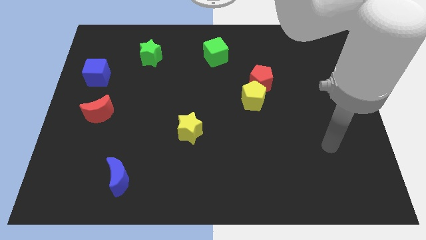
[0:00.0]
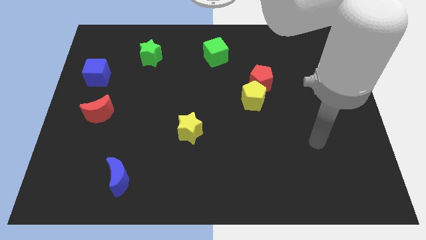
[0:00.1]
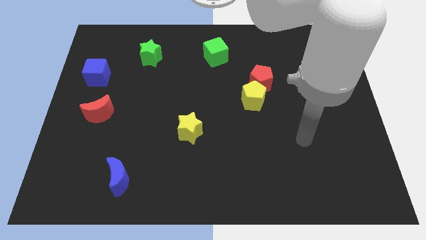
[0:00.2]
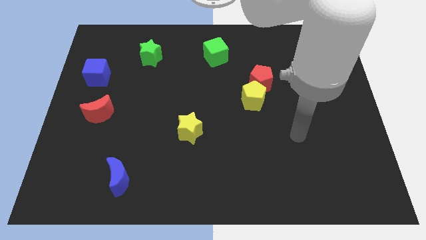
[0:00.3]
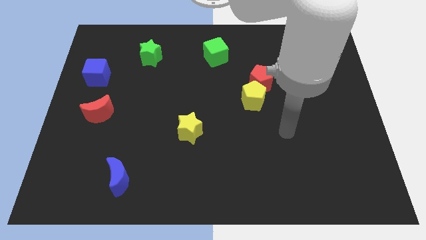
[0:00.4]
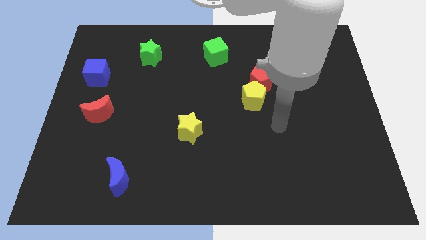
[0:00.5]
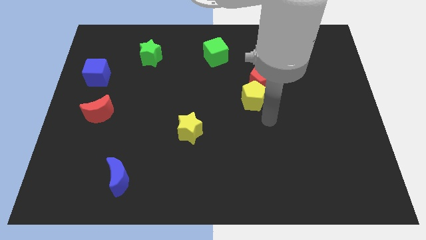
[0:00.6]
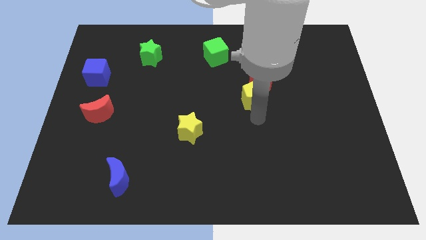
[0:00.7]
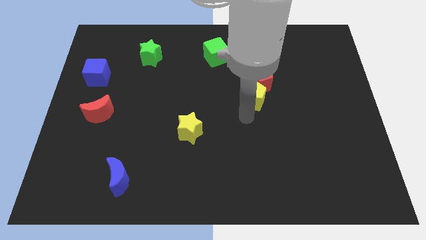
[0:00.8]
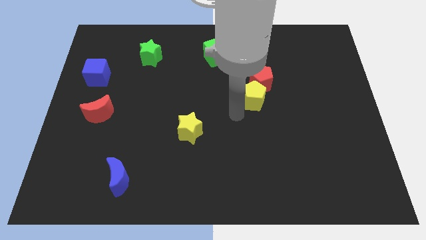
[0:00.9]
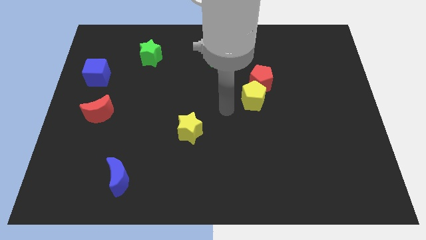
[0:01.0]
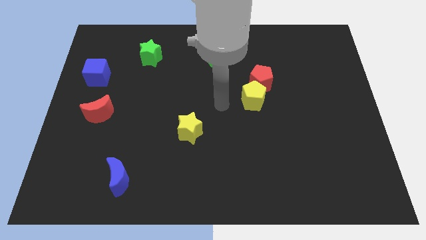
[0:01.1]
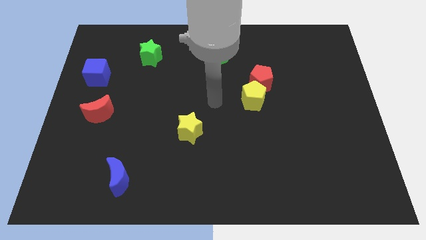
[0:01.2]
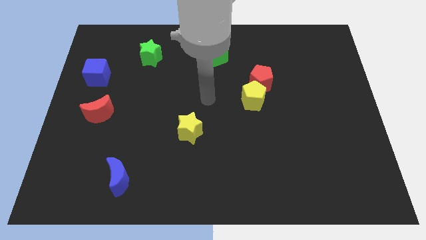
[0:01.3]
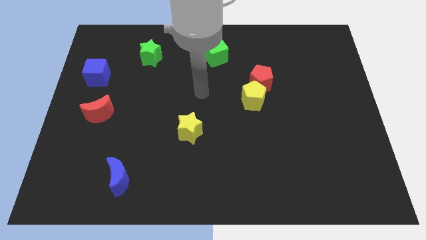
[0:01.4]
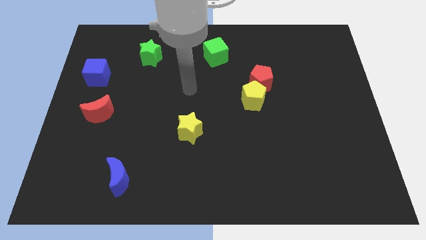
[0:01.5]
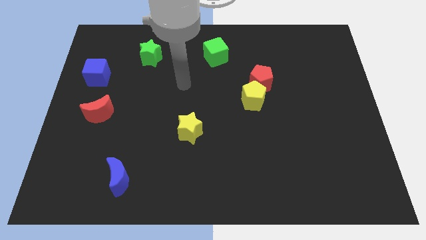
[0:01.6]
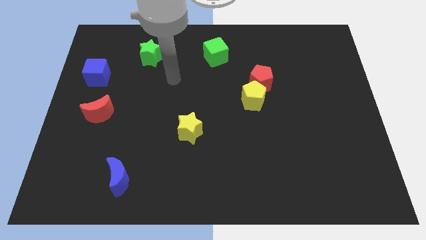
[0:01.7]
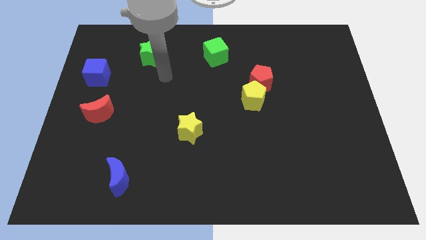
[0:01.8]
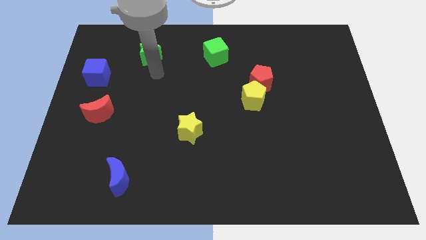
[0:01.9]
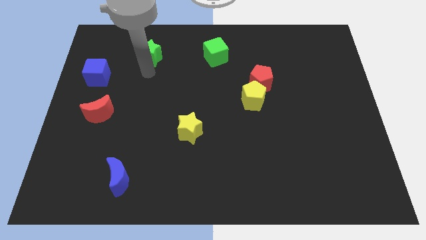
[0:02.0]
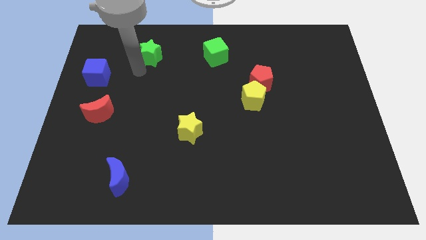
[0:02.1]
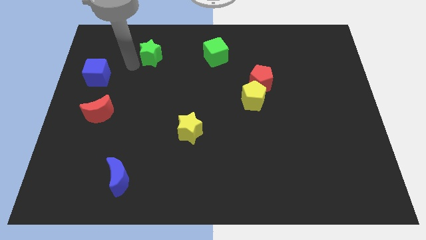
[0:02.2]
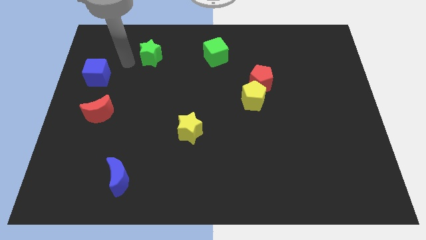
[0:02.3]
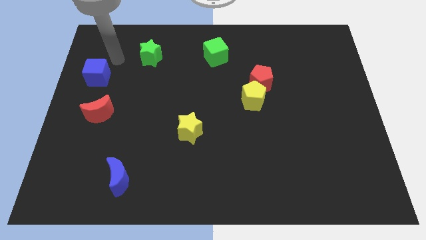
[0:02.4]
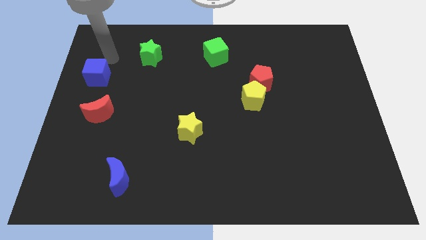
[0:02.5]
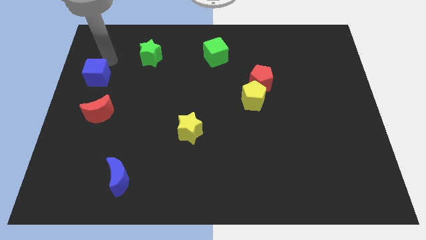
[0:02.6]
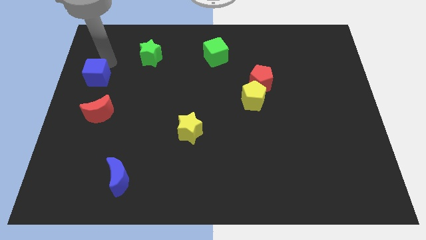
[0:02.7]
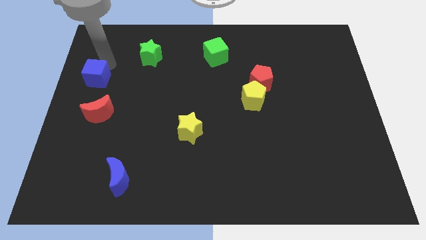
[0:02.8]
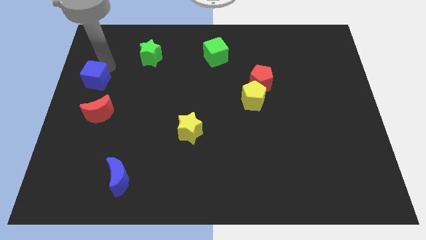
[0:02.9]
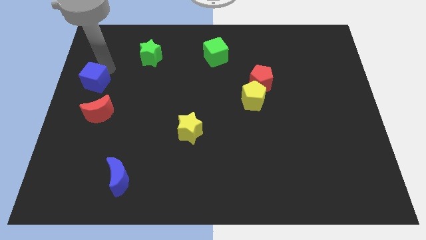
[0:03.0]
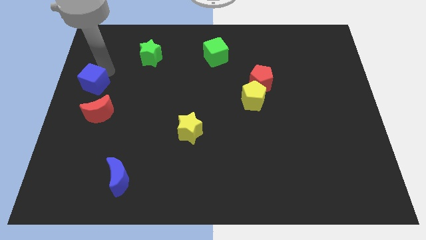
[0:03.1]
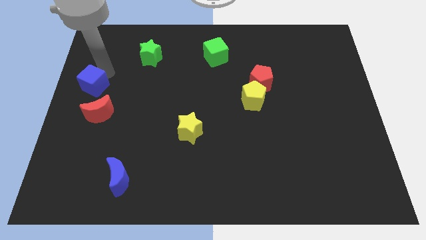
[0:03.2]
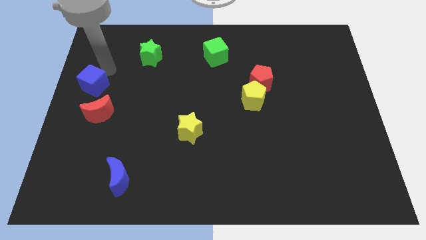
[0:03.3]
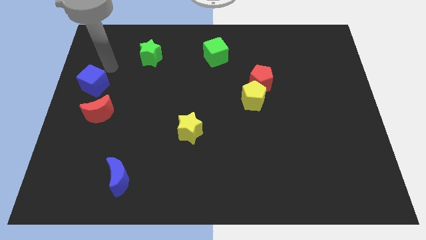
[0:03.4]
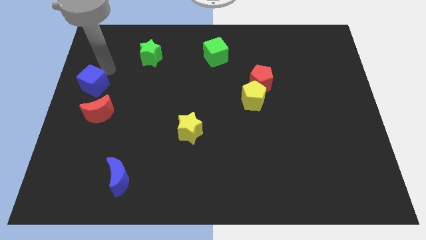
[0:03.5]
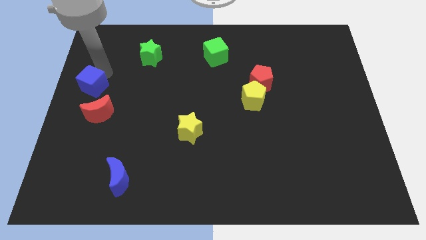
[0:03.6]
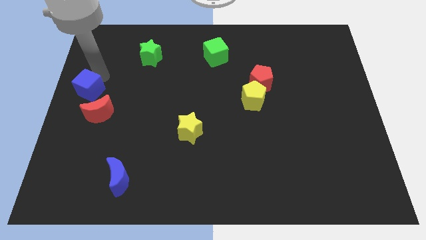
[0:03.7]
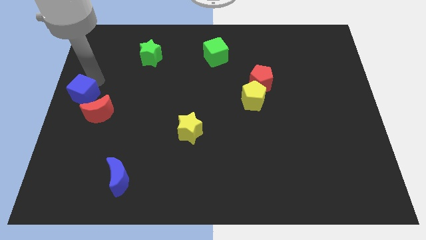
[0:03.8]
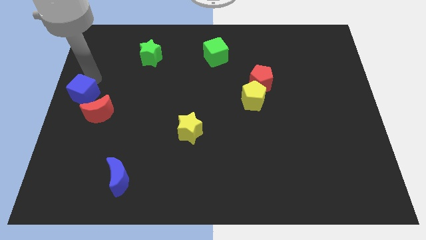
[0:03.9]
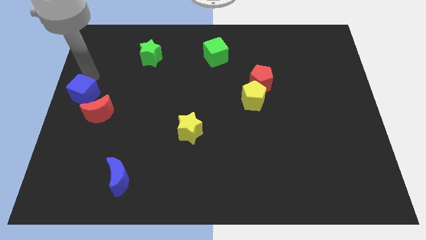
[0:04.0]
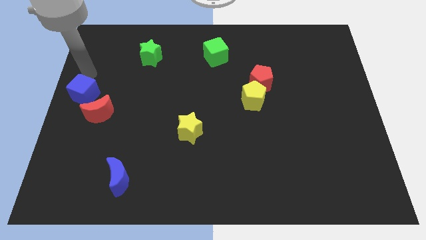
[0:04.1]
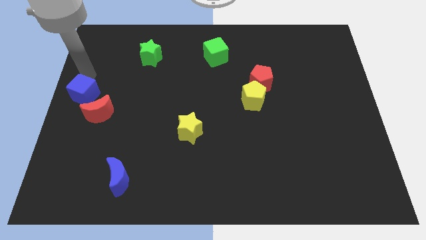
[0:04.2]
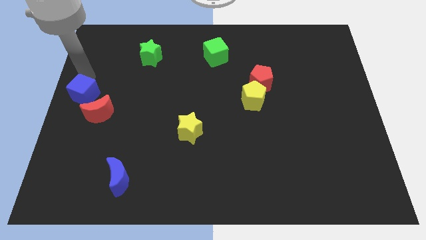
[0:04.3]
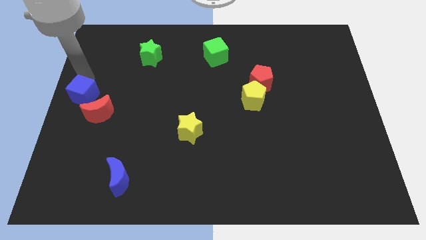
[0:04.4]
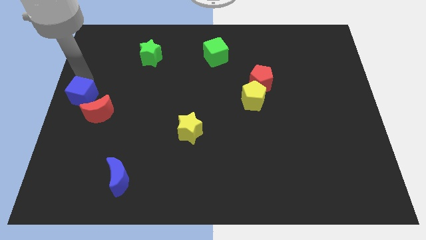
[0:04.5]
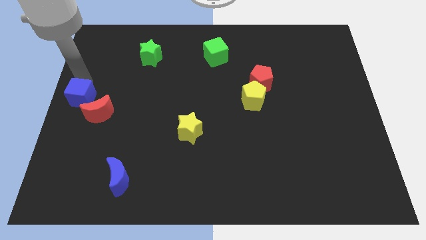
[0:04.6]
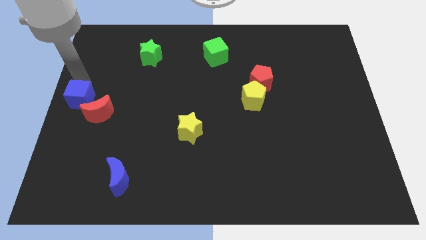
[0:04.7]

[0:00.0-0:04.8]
slide the blue cube somewhat downwards

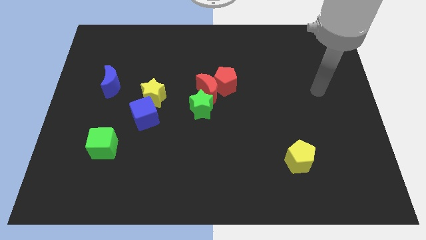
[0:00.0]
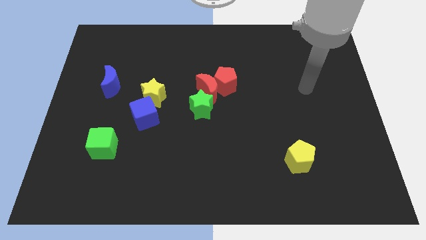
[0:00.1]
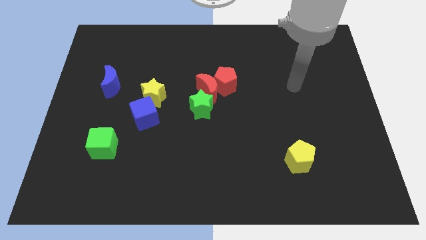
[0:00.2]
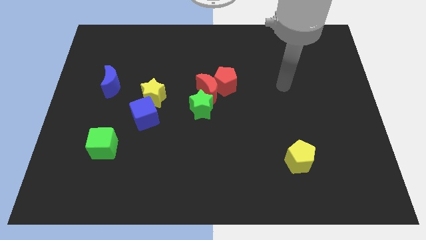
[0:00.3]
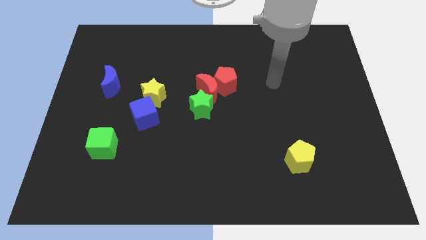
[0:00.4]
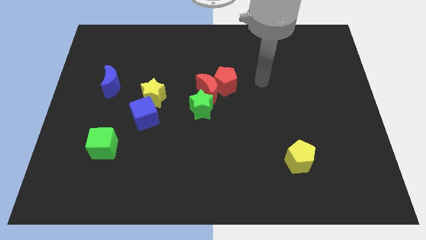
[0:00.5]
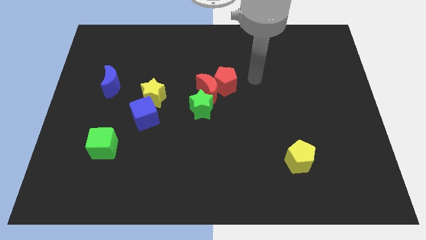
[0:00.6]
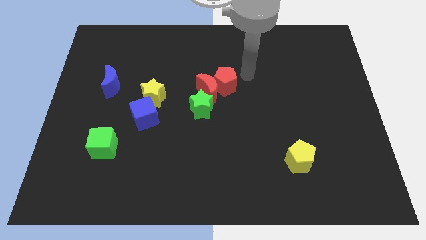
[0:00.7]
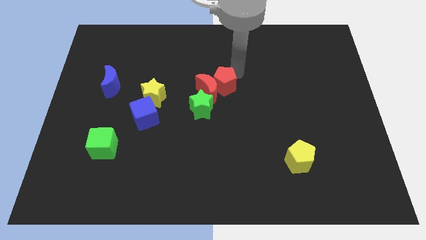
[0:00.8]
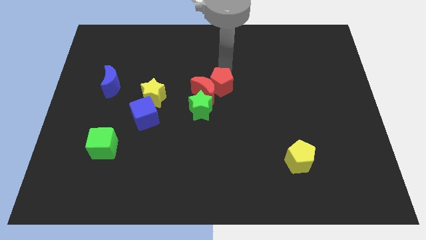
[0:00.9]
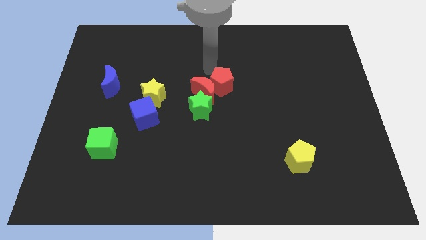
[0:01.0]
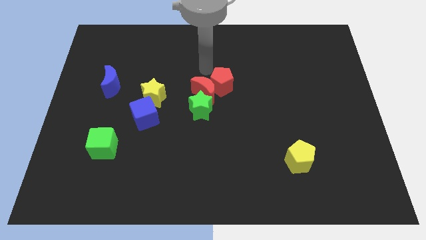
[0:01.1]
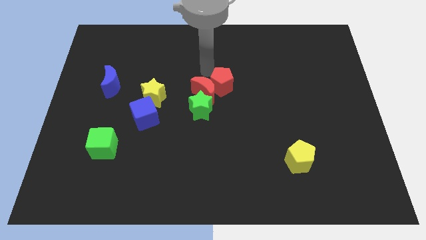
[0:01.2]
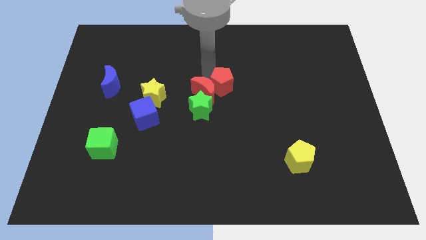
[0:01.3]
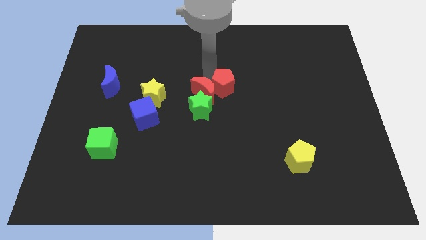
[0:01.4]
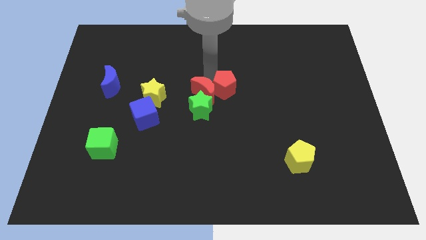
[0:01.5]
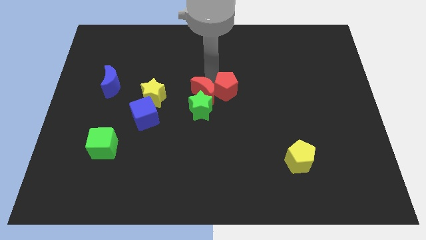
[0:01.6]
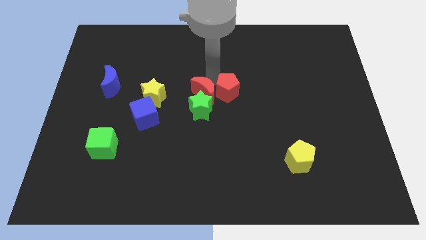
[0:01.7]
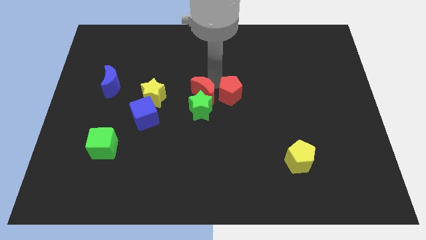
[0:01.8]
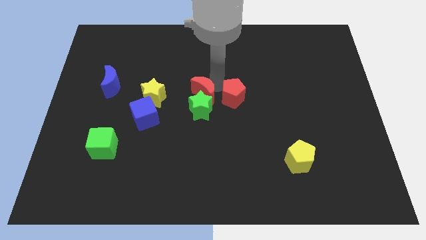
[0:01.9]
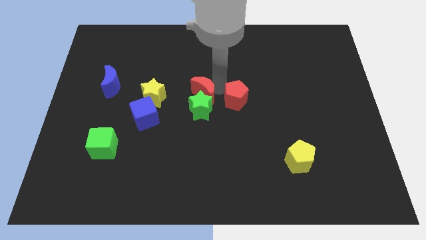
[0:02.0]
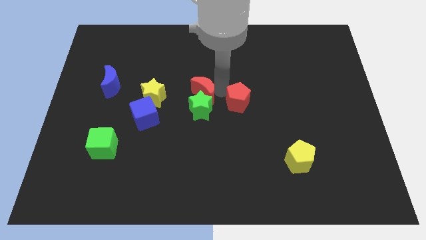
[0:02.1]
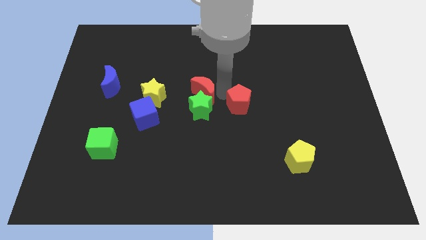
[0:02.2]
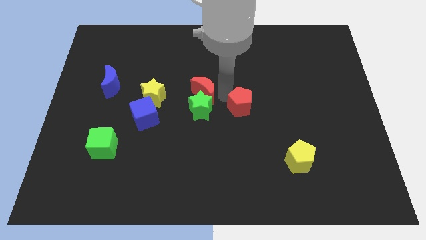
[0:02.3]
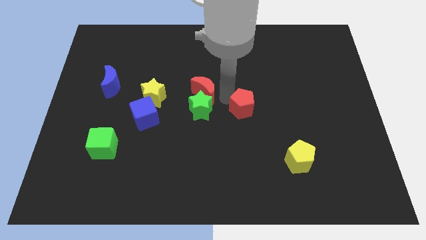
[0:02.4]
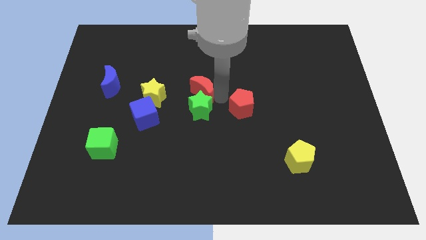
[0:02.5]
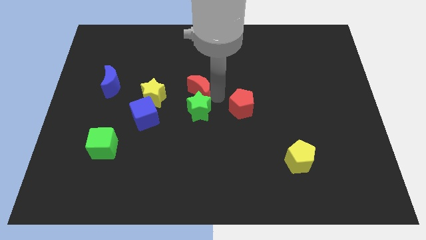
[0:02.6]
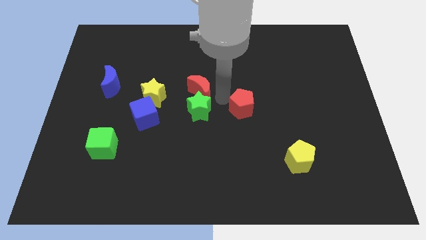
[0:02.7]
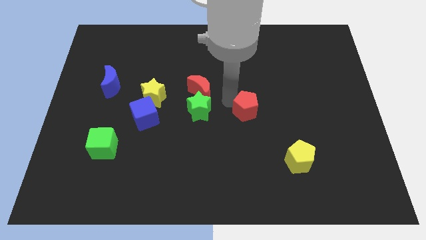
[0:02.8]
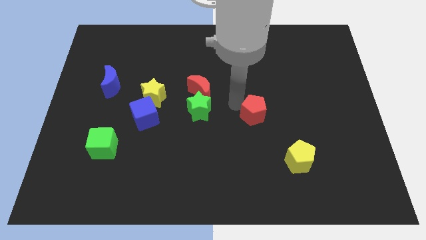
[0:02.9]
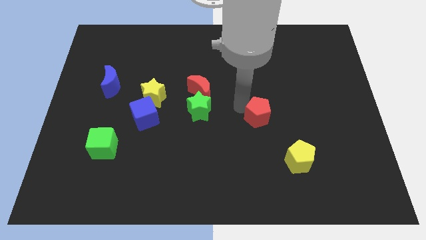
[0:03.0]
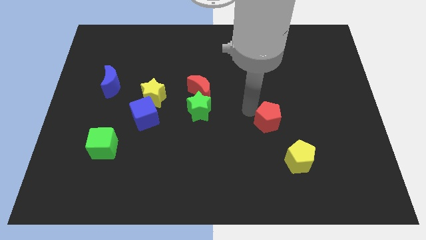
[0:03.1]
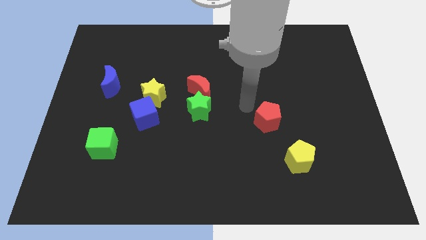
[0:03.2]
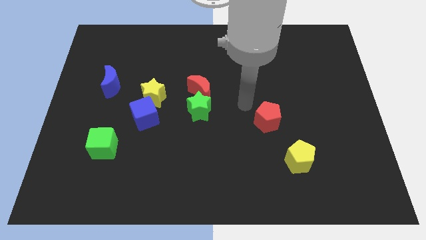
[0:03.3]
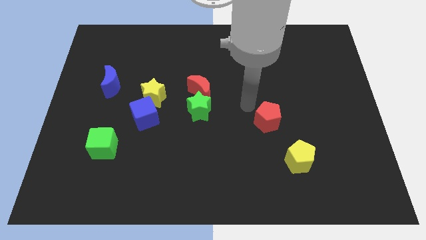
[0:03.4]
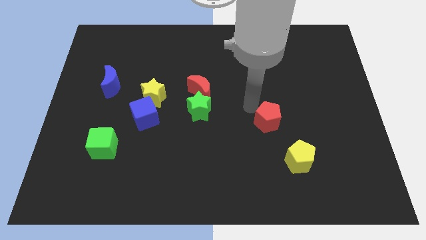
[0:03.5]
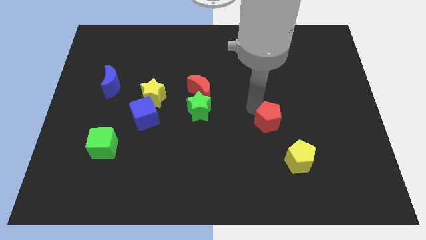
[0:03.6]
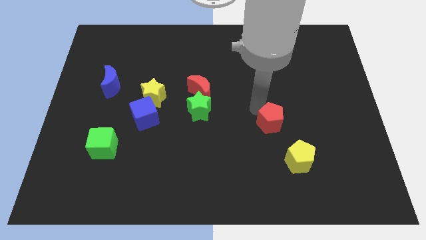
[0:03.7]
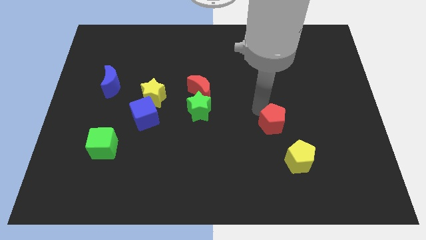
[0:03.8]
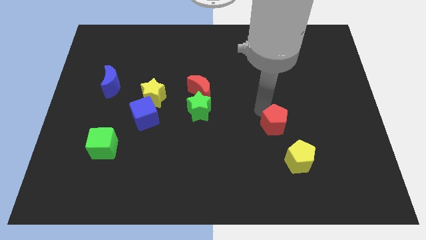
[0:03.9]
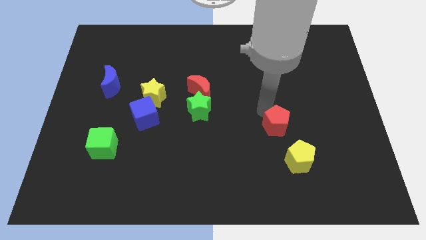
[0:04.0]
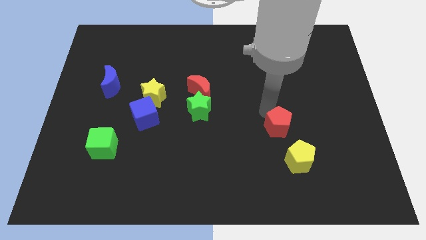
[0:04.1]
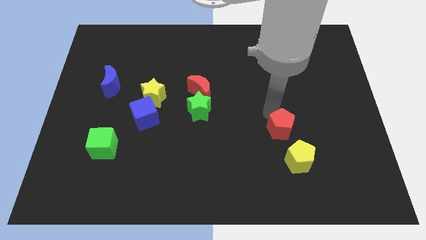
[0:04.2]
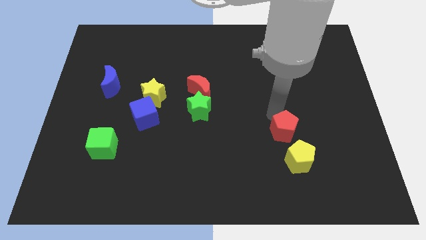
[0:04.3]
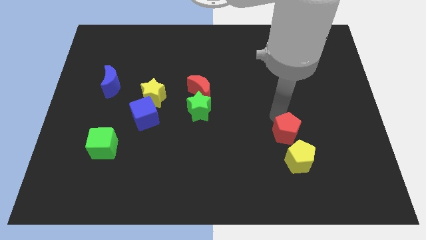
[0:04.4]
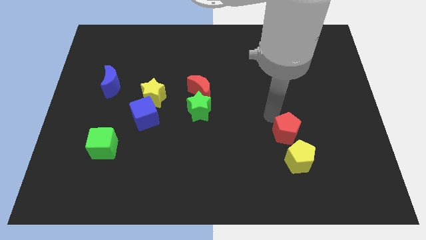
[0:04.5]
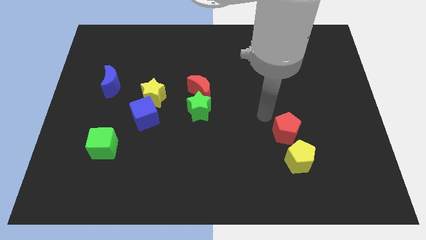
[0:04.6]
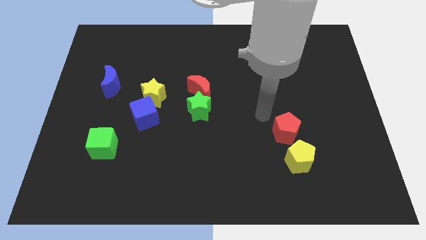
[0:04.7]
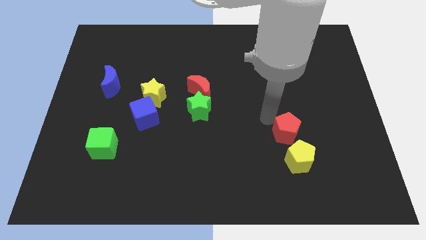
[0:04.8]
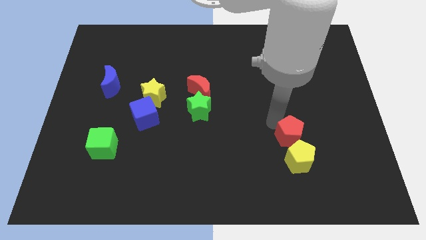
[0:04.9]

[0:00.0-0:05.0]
move the red pentagon down and then right
